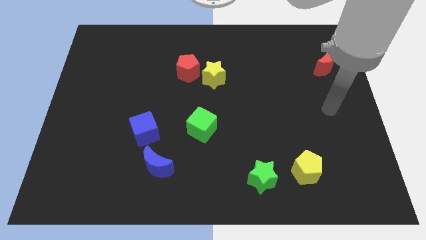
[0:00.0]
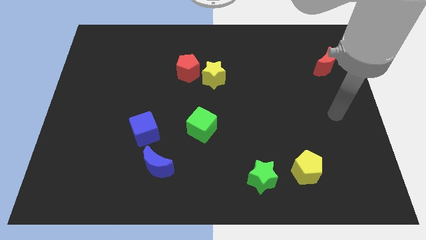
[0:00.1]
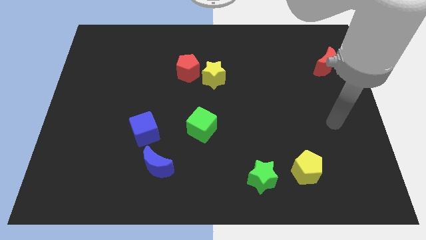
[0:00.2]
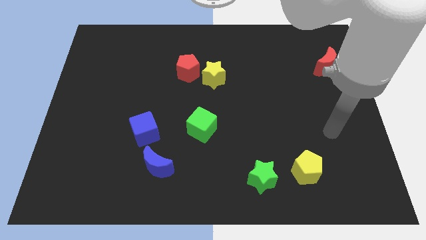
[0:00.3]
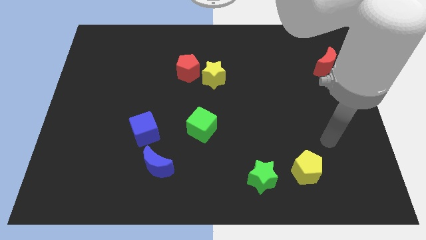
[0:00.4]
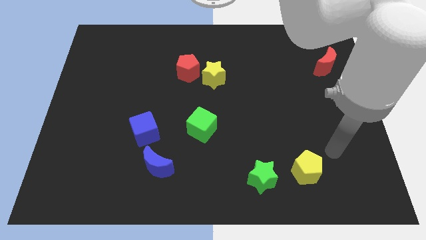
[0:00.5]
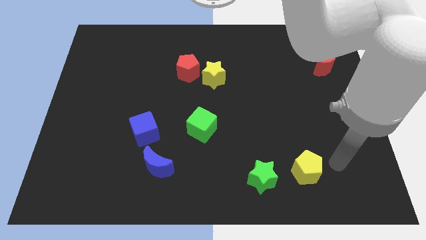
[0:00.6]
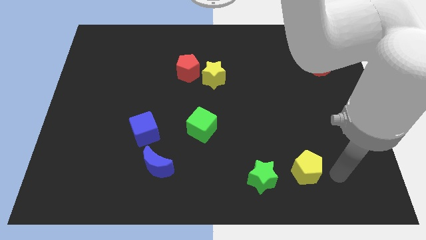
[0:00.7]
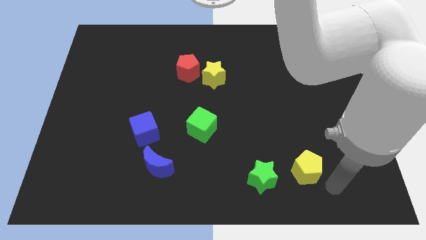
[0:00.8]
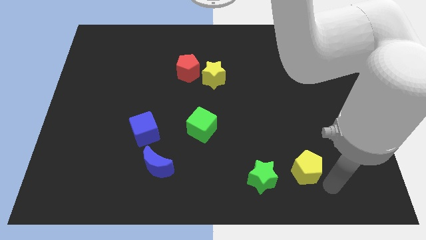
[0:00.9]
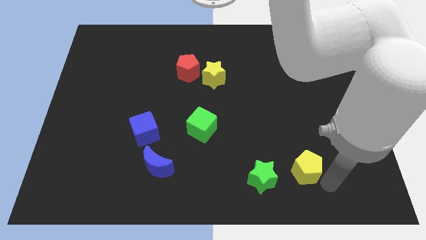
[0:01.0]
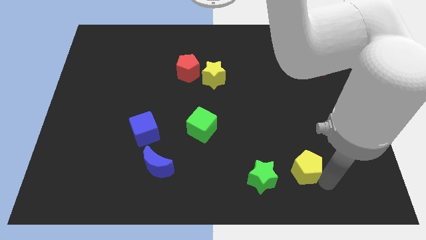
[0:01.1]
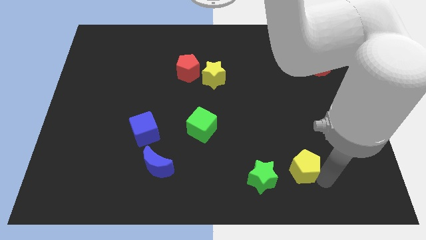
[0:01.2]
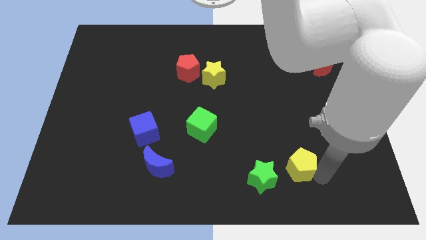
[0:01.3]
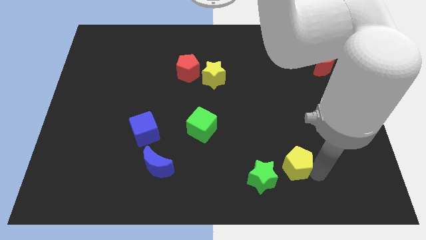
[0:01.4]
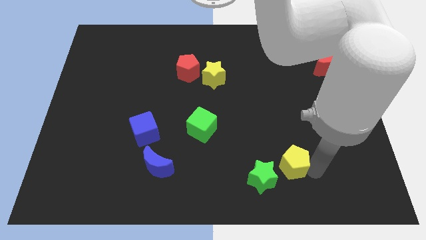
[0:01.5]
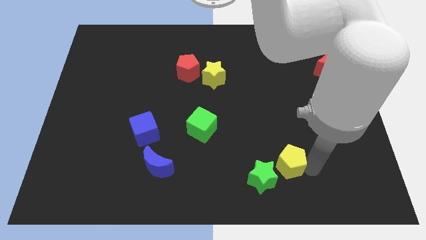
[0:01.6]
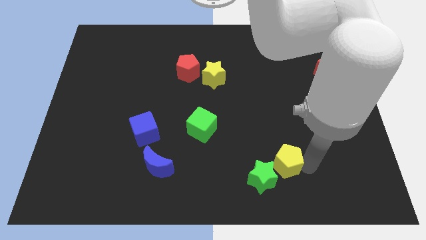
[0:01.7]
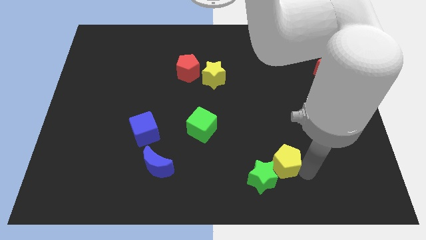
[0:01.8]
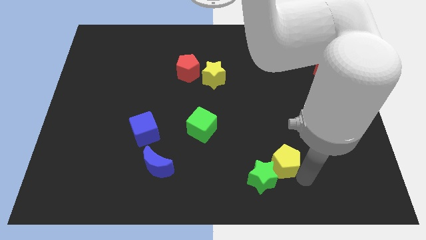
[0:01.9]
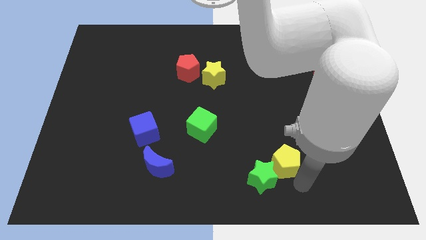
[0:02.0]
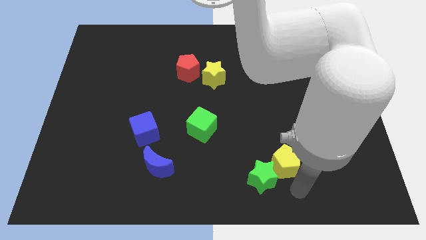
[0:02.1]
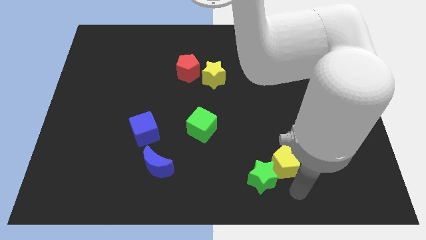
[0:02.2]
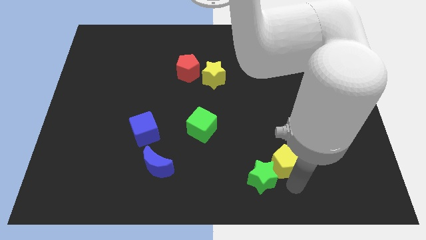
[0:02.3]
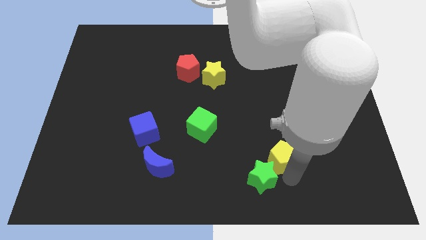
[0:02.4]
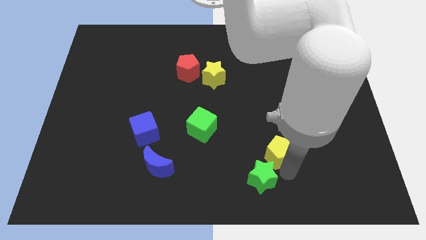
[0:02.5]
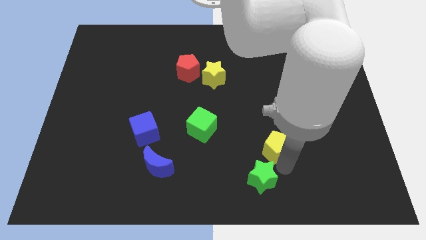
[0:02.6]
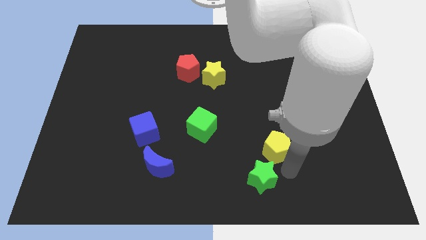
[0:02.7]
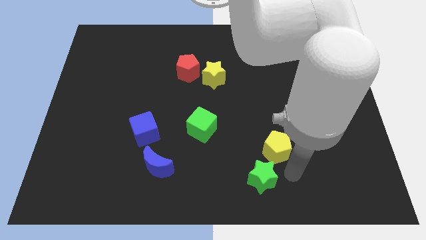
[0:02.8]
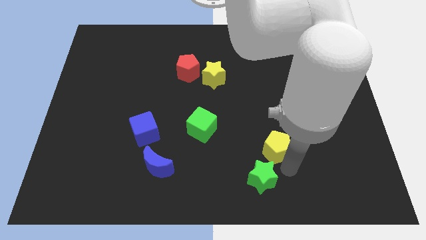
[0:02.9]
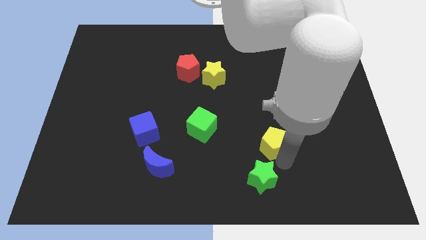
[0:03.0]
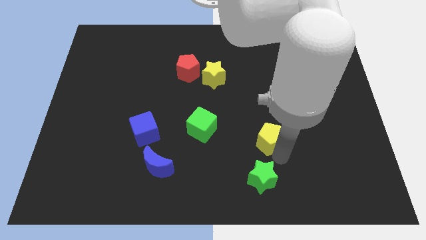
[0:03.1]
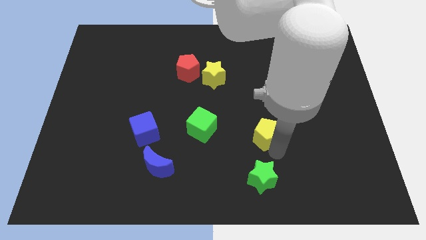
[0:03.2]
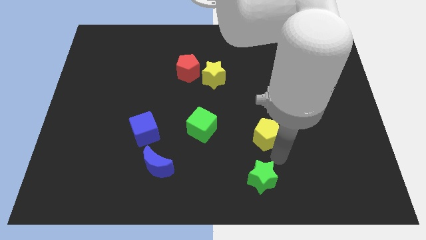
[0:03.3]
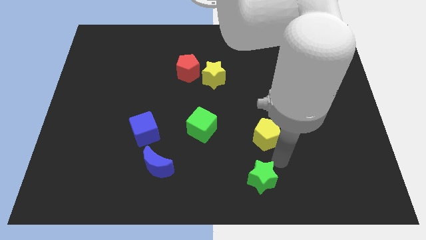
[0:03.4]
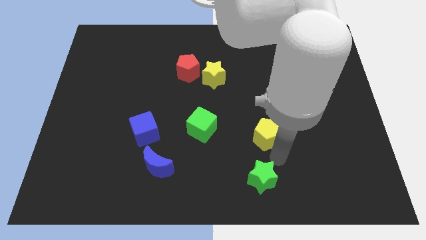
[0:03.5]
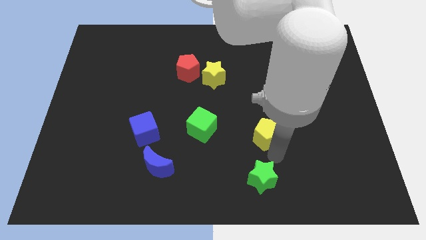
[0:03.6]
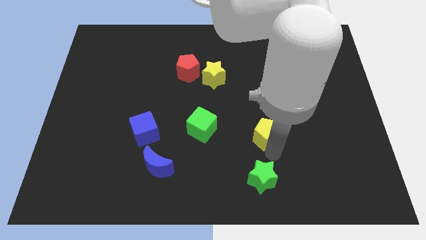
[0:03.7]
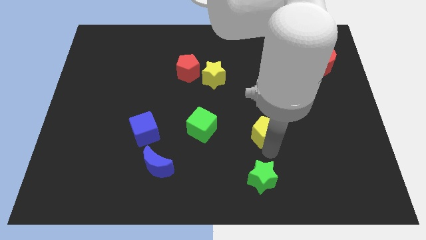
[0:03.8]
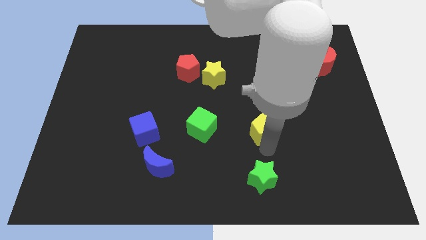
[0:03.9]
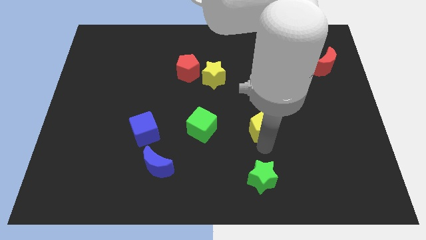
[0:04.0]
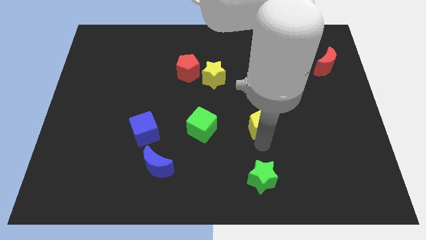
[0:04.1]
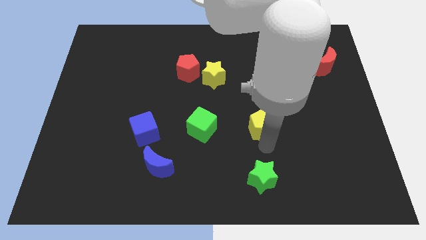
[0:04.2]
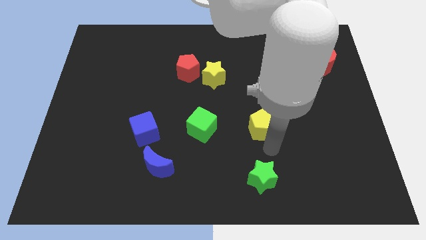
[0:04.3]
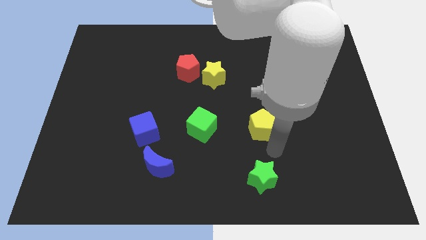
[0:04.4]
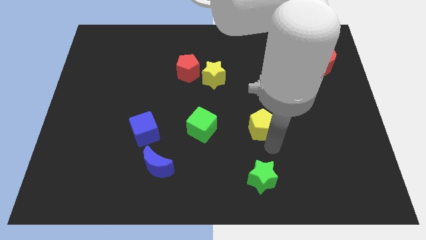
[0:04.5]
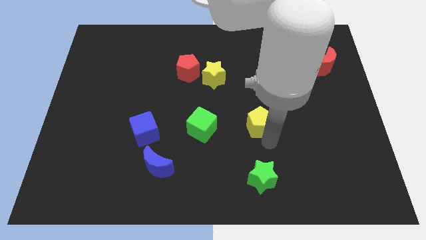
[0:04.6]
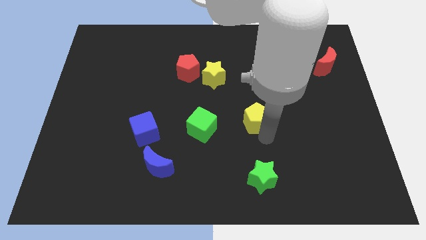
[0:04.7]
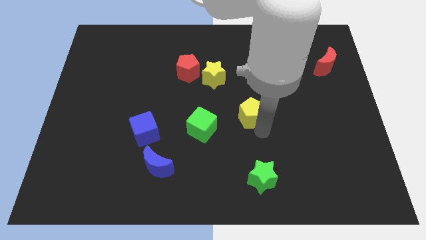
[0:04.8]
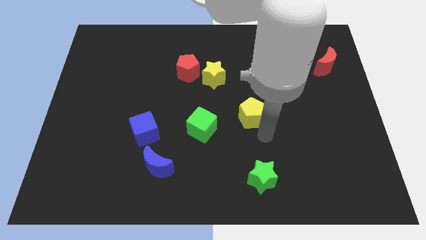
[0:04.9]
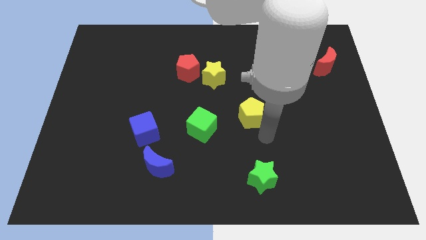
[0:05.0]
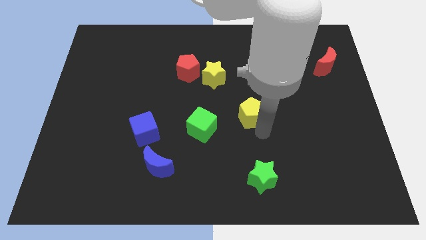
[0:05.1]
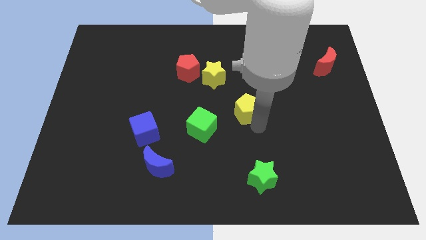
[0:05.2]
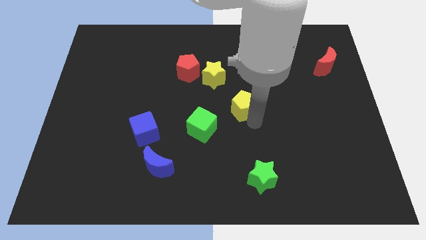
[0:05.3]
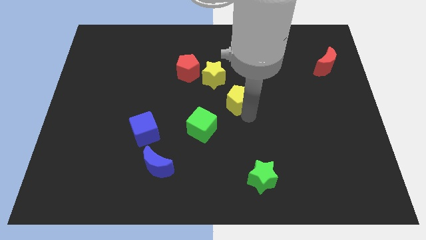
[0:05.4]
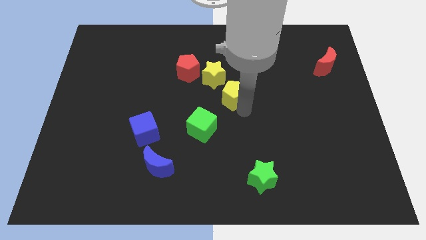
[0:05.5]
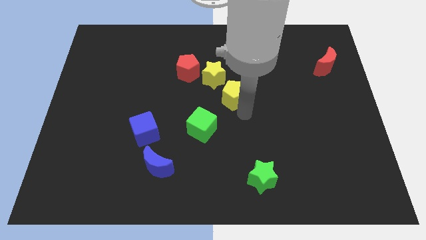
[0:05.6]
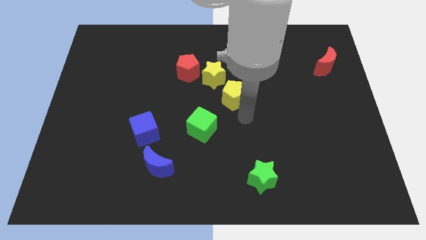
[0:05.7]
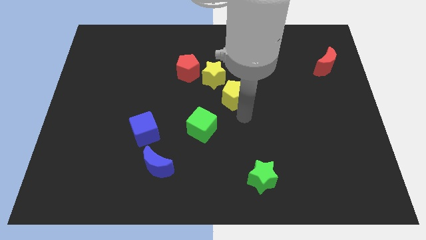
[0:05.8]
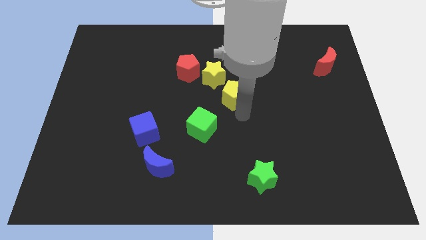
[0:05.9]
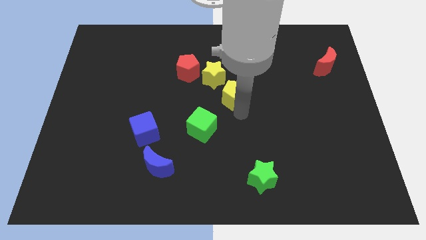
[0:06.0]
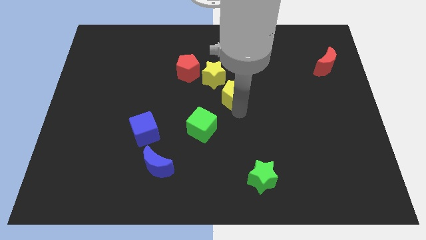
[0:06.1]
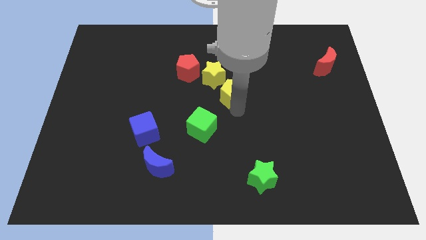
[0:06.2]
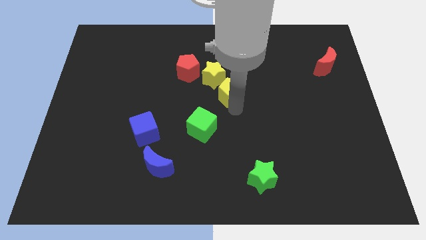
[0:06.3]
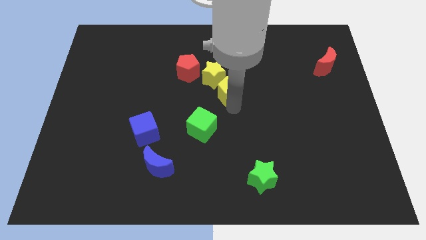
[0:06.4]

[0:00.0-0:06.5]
push the yellow pentagon next to the yellow star
